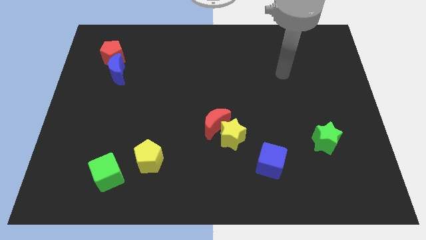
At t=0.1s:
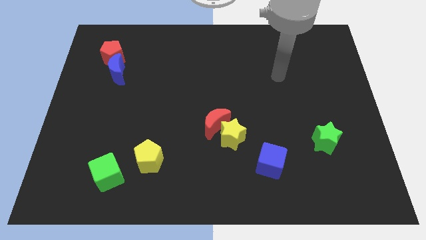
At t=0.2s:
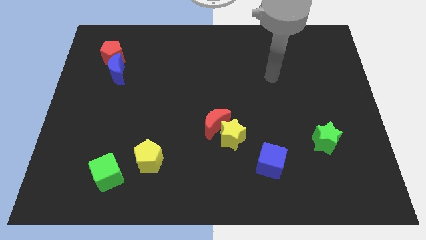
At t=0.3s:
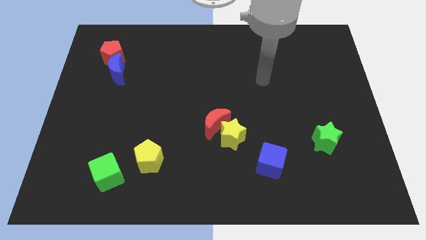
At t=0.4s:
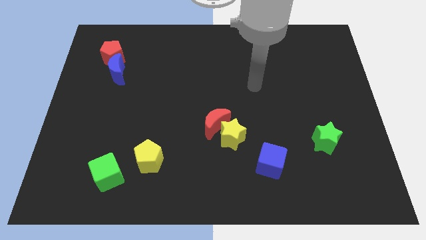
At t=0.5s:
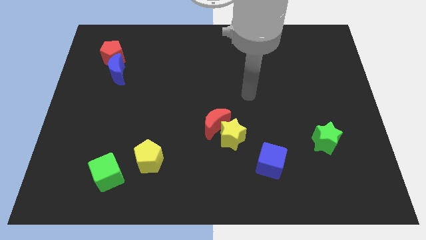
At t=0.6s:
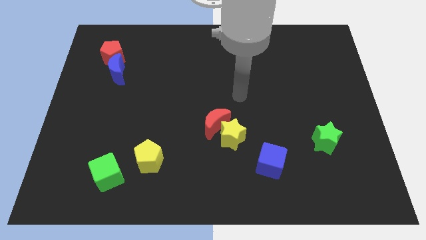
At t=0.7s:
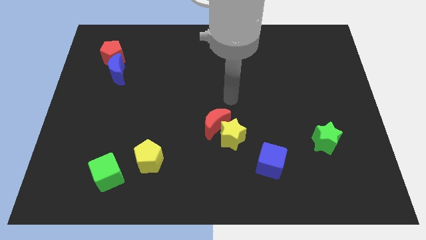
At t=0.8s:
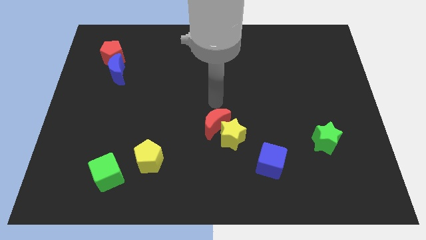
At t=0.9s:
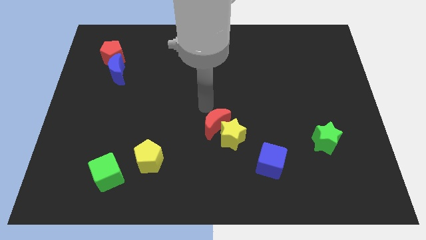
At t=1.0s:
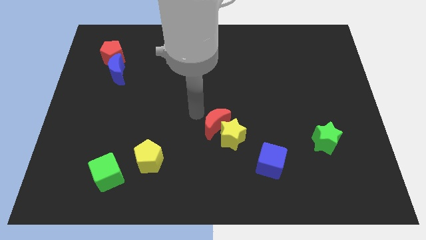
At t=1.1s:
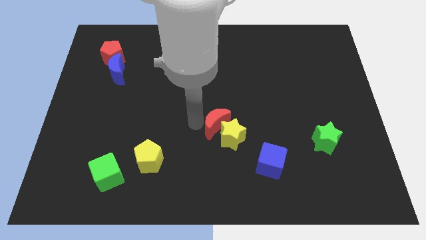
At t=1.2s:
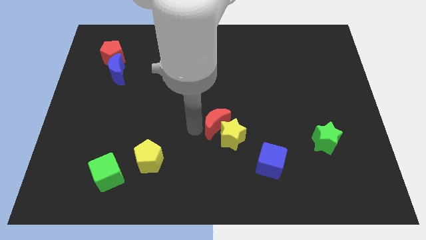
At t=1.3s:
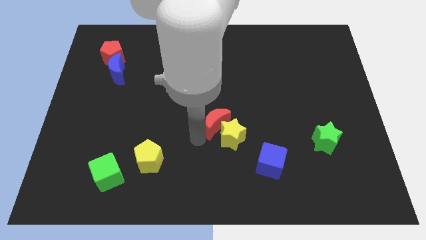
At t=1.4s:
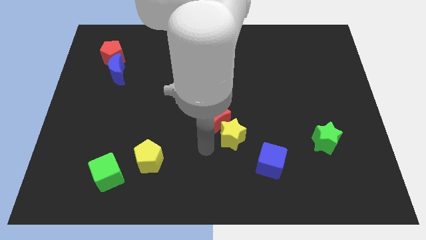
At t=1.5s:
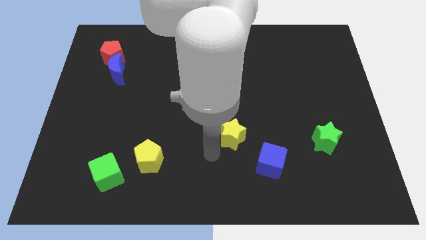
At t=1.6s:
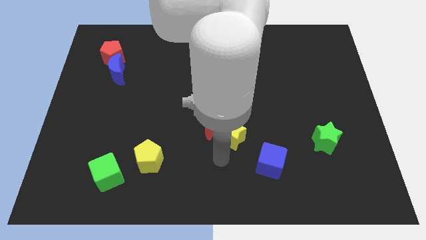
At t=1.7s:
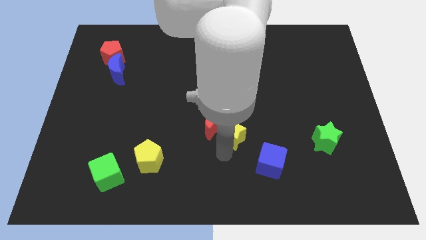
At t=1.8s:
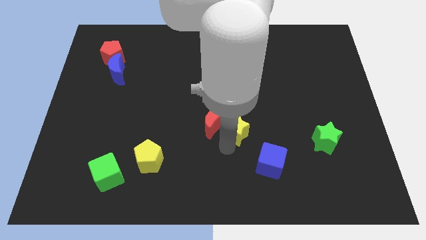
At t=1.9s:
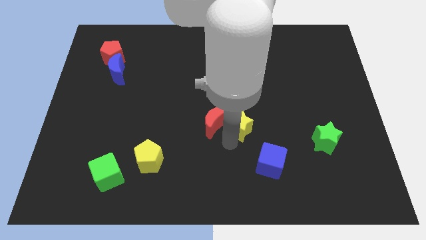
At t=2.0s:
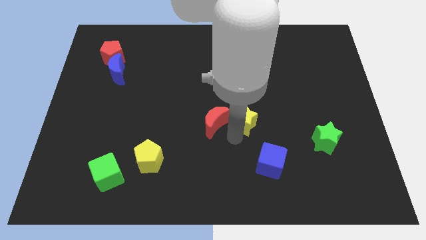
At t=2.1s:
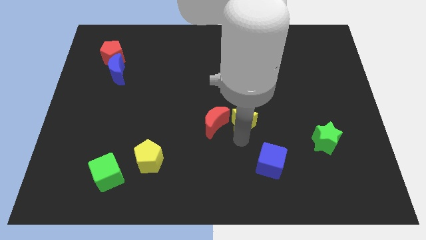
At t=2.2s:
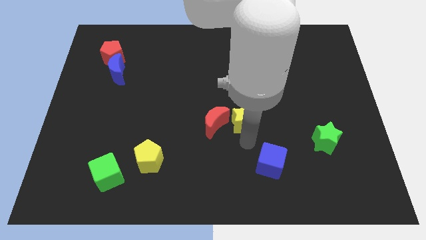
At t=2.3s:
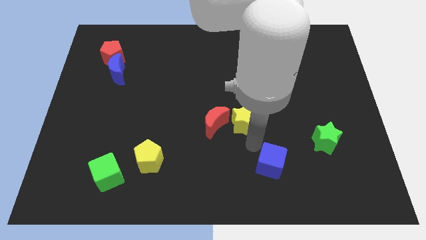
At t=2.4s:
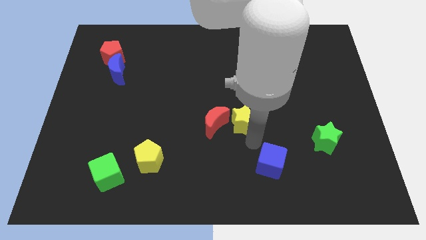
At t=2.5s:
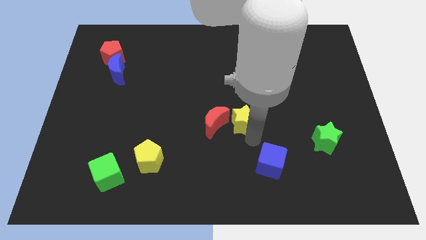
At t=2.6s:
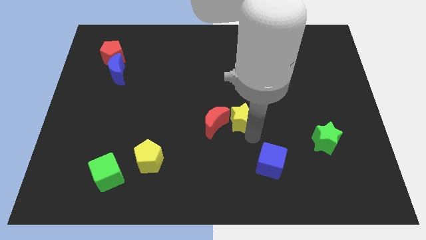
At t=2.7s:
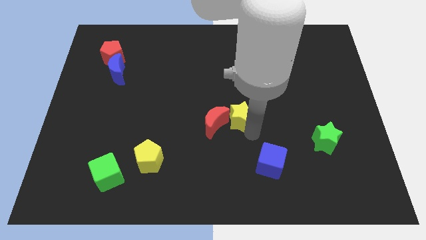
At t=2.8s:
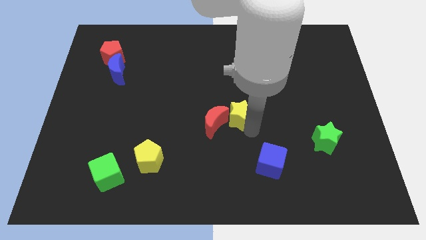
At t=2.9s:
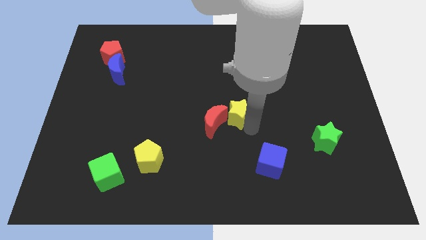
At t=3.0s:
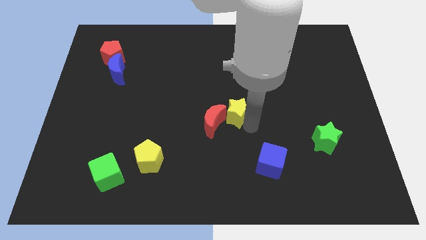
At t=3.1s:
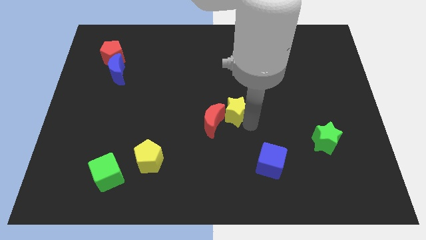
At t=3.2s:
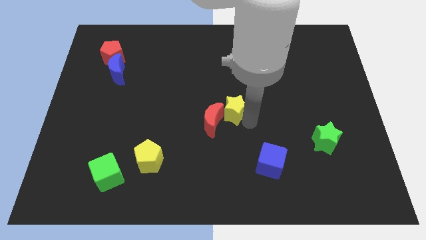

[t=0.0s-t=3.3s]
move the yellow star a little bit upwards

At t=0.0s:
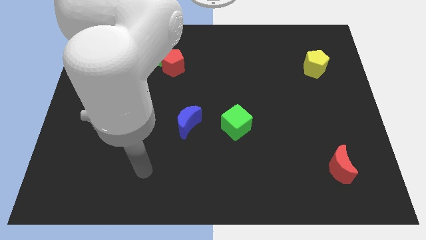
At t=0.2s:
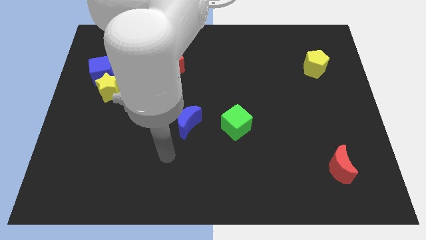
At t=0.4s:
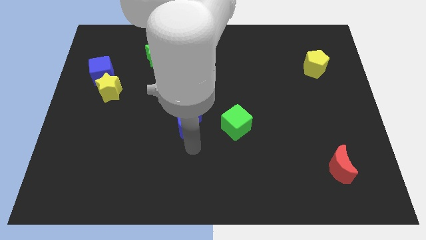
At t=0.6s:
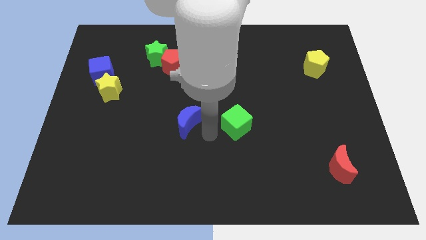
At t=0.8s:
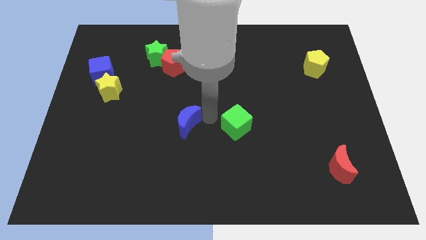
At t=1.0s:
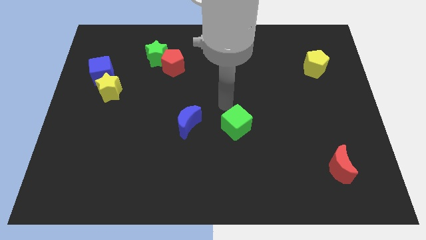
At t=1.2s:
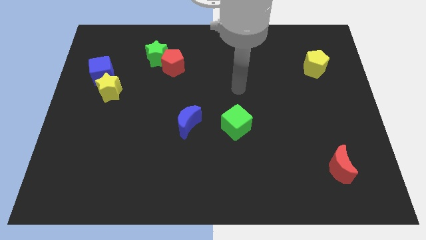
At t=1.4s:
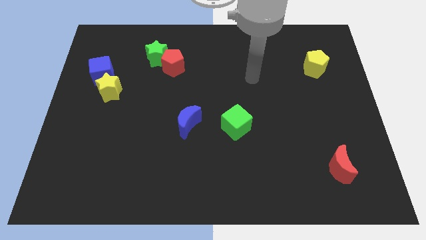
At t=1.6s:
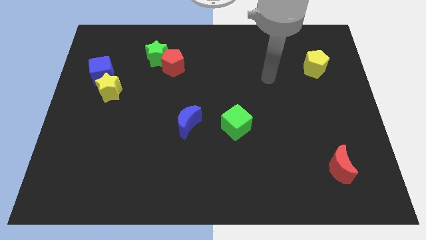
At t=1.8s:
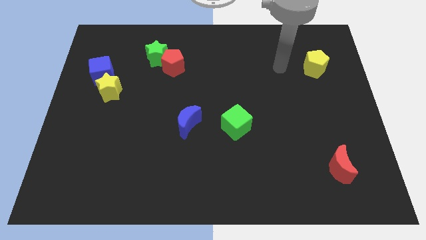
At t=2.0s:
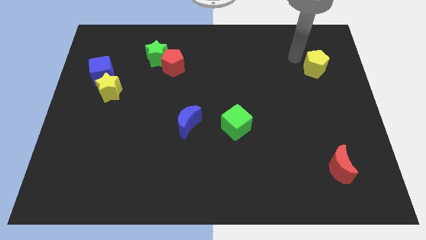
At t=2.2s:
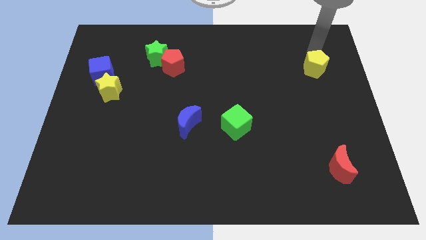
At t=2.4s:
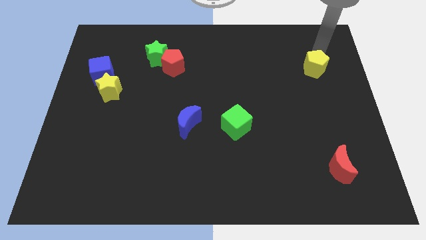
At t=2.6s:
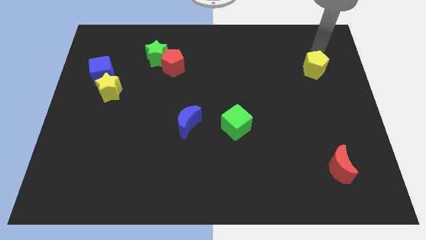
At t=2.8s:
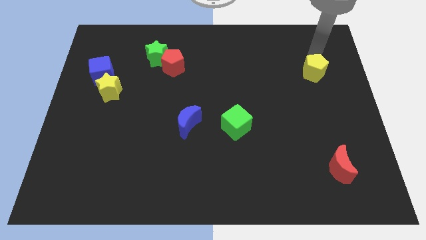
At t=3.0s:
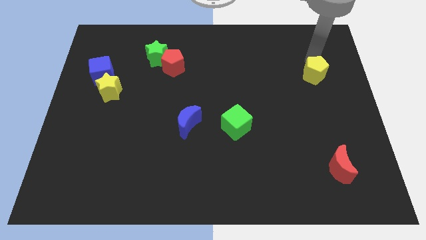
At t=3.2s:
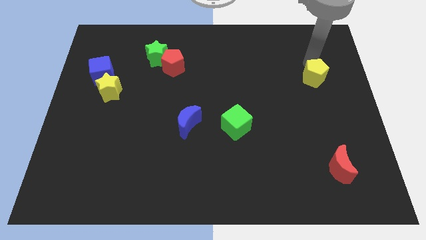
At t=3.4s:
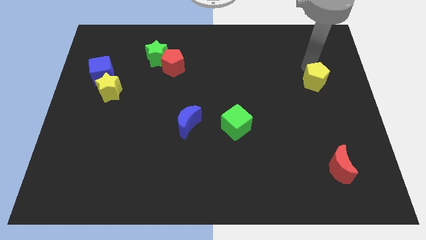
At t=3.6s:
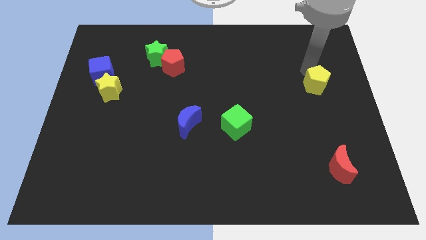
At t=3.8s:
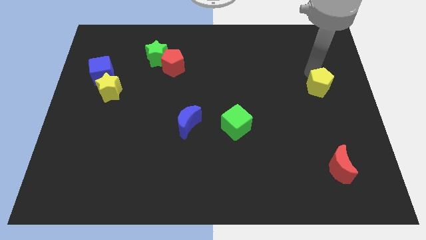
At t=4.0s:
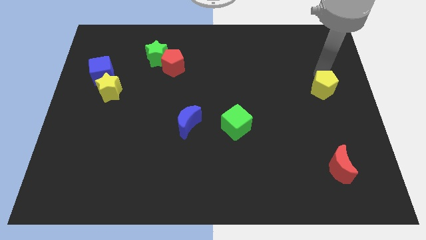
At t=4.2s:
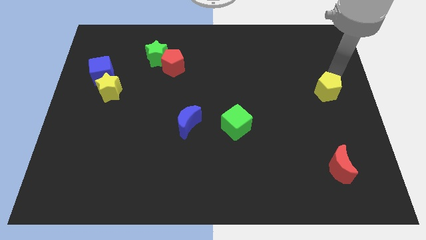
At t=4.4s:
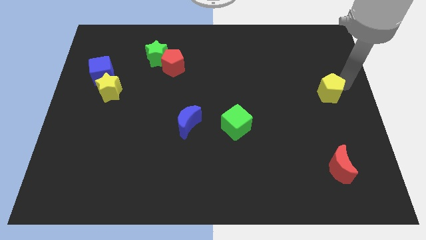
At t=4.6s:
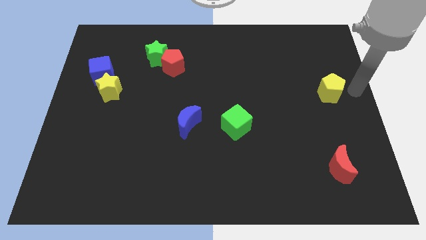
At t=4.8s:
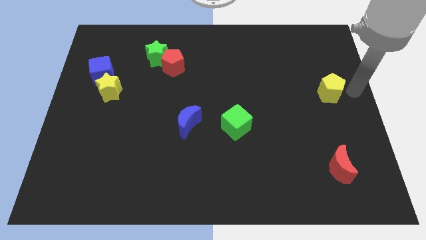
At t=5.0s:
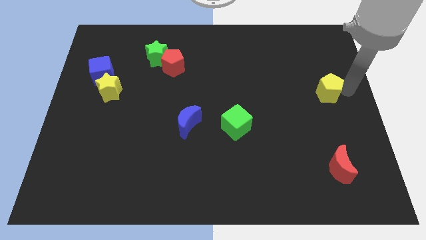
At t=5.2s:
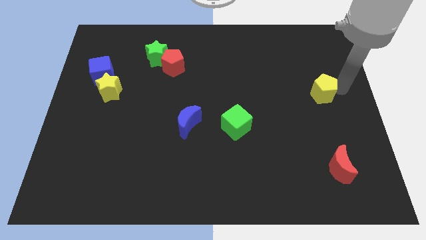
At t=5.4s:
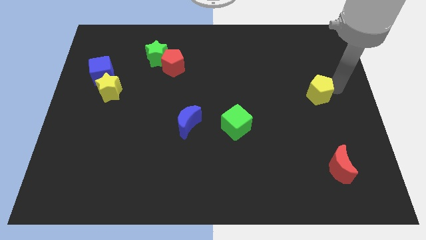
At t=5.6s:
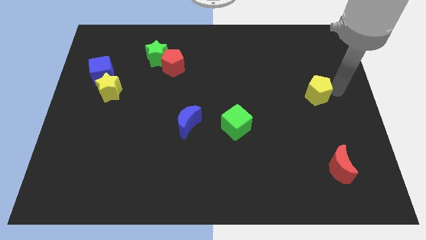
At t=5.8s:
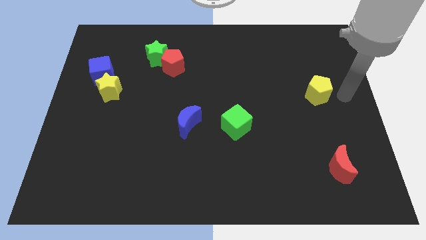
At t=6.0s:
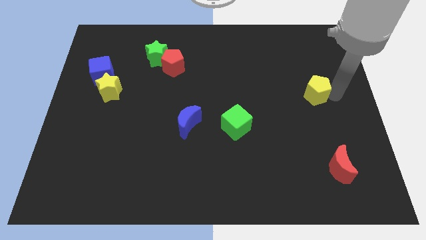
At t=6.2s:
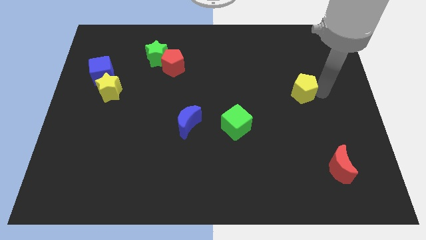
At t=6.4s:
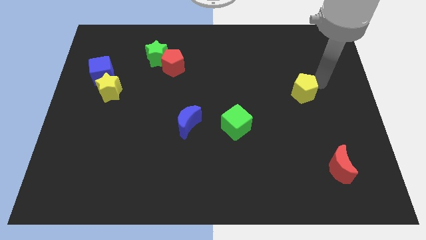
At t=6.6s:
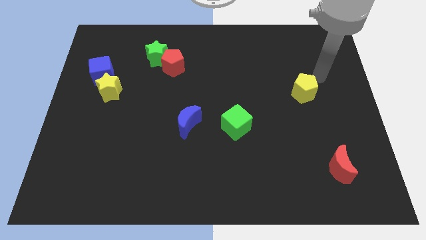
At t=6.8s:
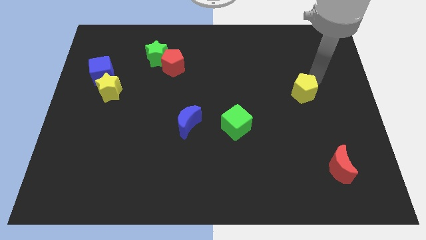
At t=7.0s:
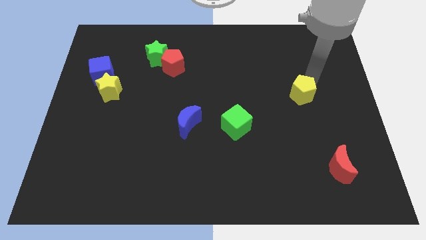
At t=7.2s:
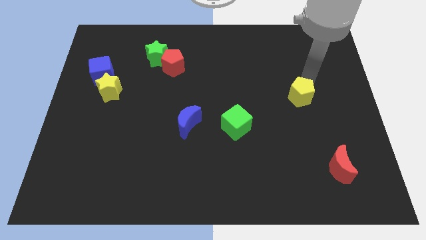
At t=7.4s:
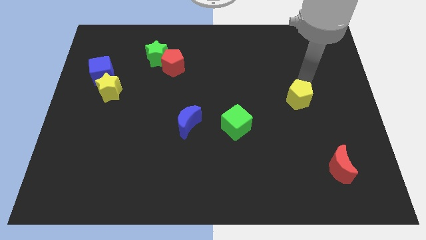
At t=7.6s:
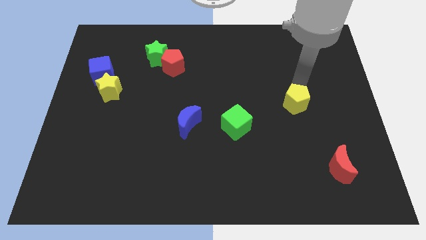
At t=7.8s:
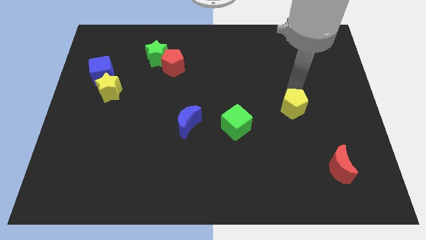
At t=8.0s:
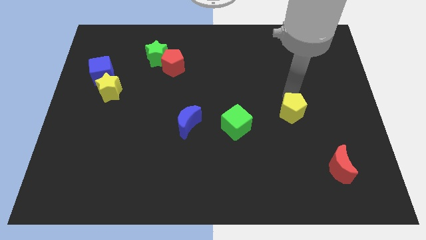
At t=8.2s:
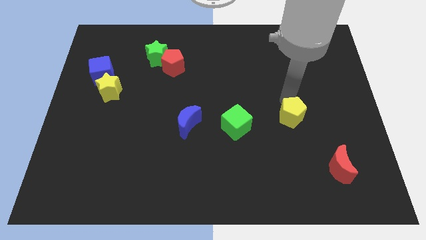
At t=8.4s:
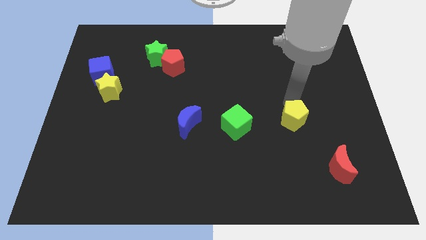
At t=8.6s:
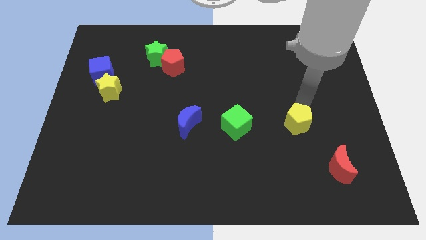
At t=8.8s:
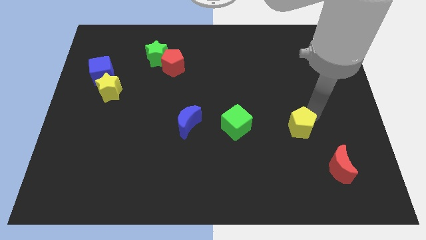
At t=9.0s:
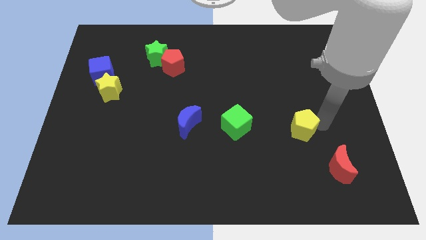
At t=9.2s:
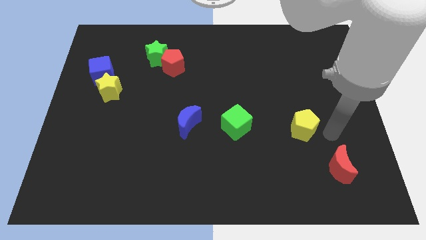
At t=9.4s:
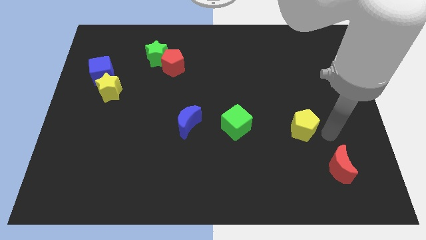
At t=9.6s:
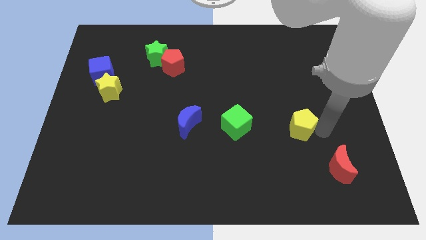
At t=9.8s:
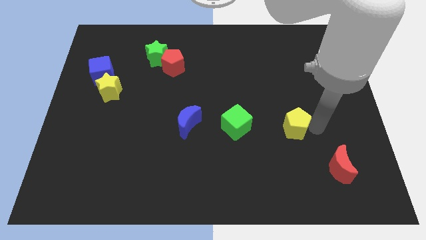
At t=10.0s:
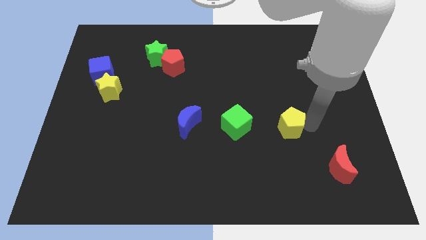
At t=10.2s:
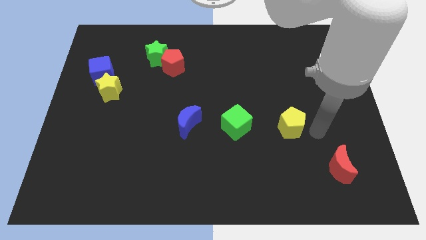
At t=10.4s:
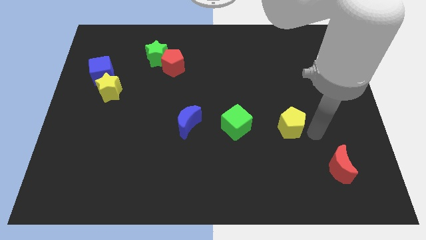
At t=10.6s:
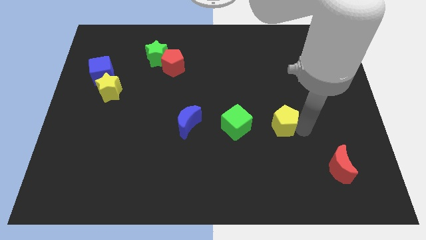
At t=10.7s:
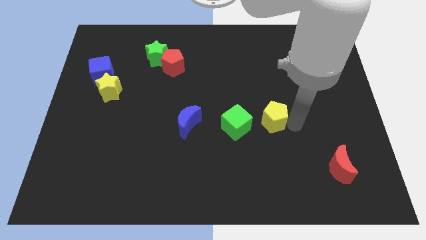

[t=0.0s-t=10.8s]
slide the yellow pentagon downwards and left
